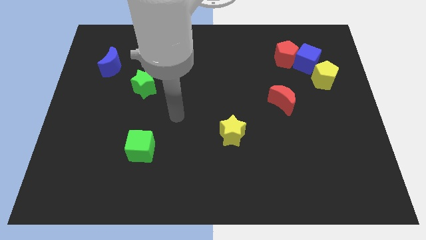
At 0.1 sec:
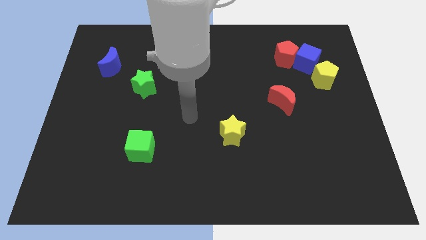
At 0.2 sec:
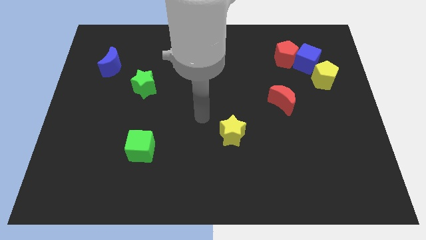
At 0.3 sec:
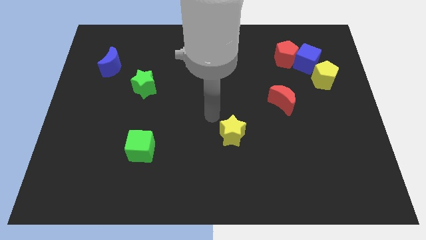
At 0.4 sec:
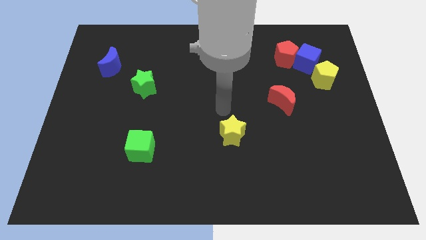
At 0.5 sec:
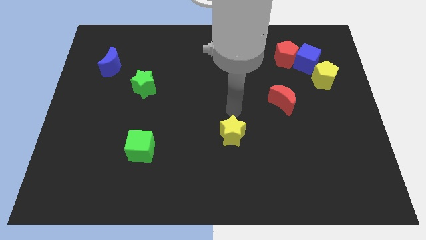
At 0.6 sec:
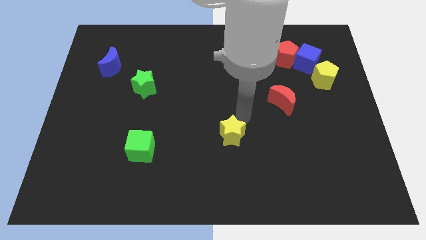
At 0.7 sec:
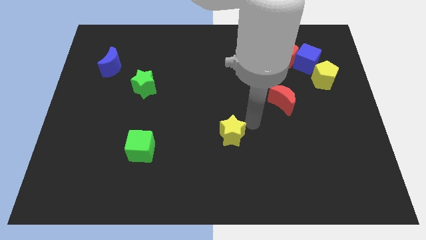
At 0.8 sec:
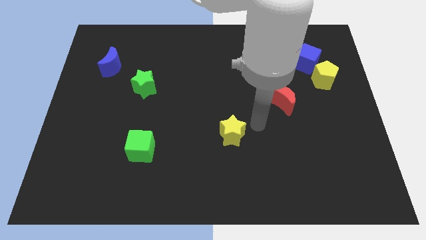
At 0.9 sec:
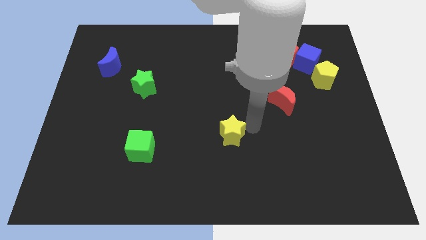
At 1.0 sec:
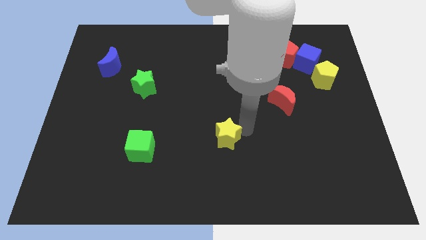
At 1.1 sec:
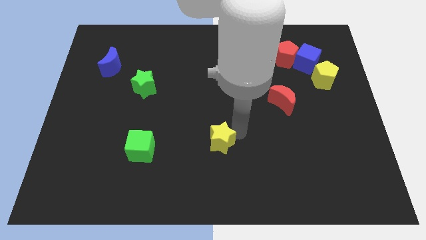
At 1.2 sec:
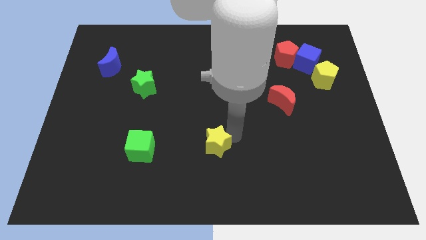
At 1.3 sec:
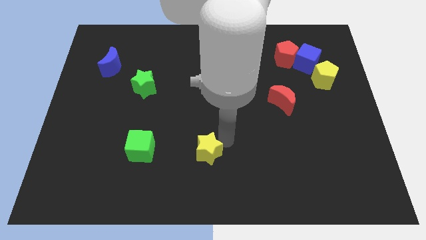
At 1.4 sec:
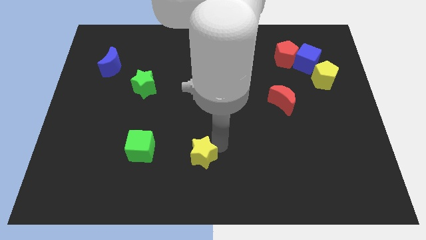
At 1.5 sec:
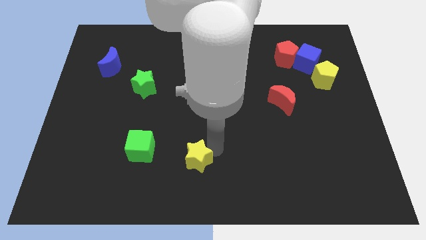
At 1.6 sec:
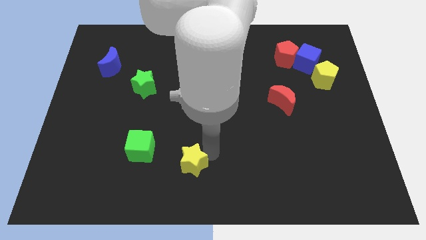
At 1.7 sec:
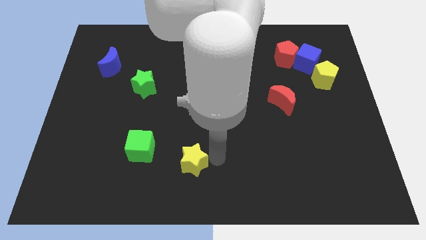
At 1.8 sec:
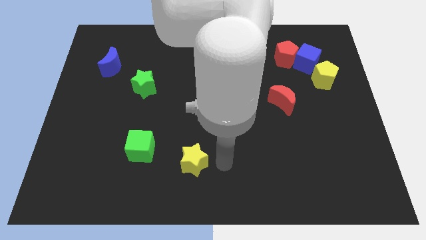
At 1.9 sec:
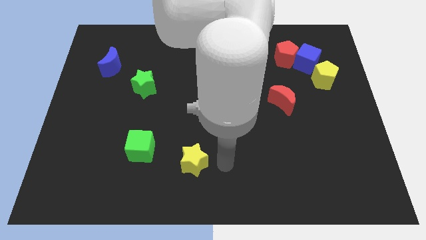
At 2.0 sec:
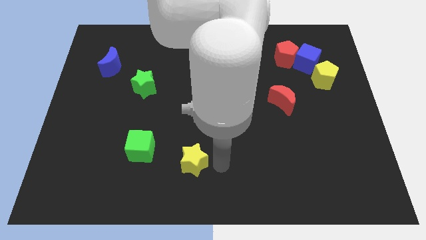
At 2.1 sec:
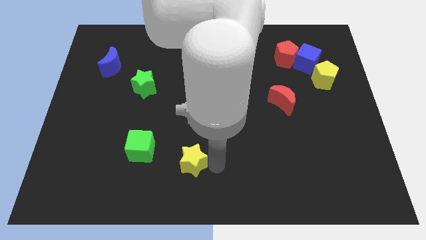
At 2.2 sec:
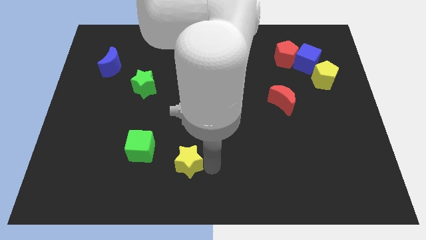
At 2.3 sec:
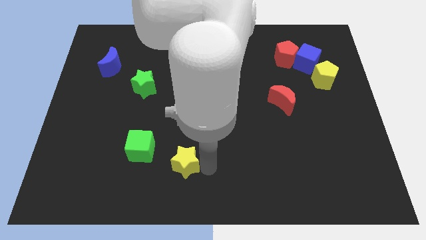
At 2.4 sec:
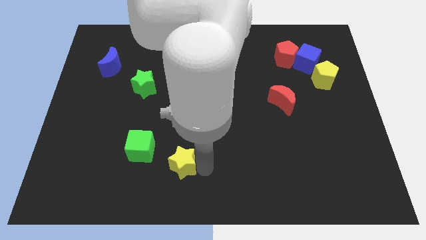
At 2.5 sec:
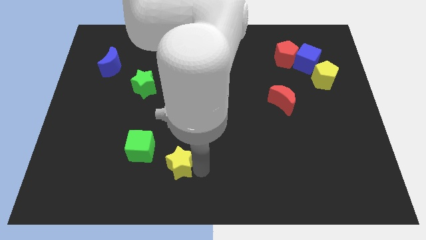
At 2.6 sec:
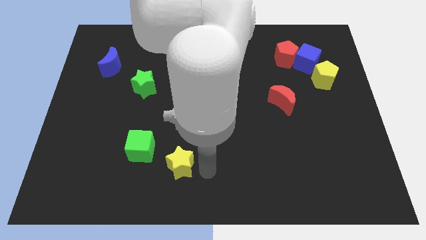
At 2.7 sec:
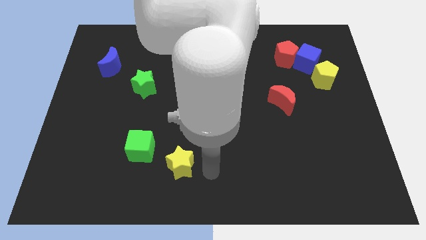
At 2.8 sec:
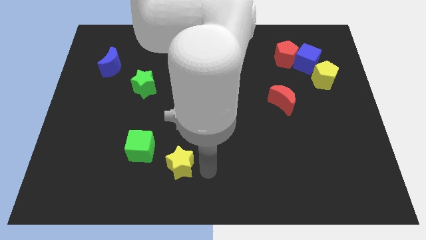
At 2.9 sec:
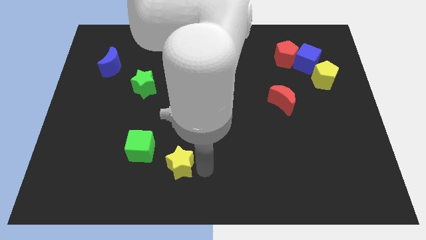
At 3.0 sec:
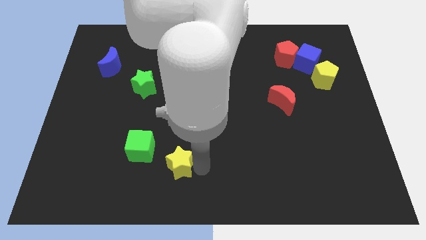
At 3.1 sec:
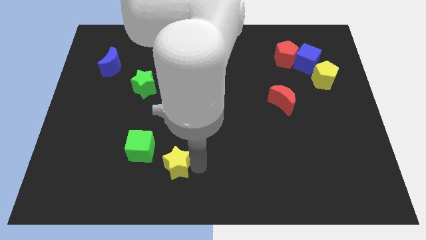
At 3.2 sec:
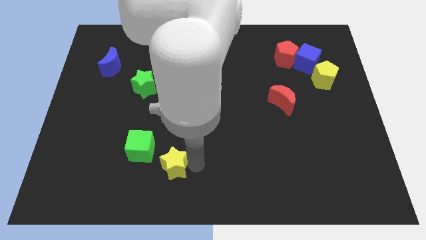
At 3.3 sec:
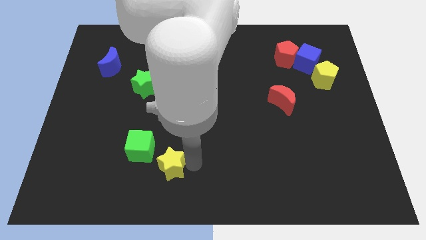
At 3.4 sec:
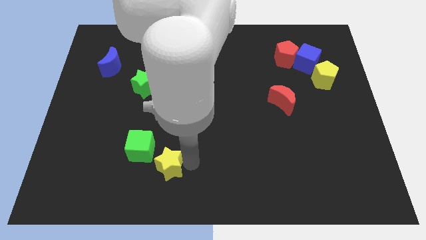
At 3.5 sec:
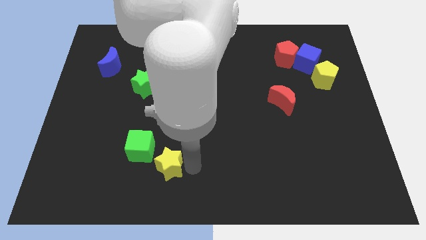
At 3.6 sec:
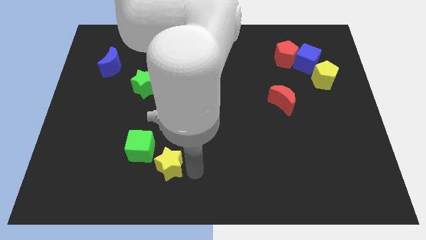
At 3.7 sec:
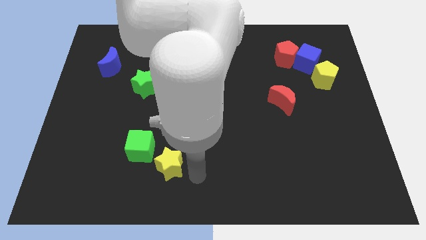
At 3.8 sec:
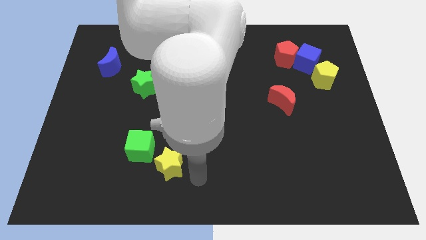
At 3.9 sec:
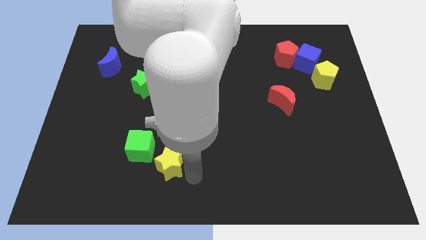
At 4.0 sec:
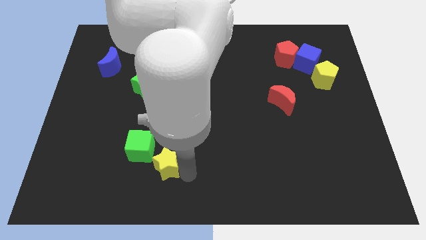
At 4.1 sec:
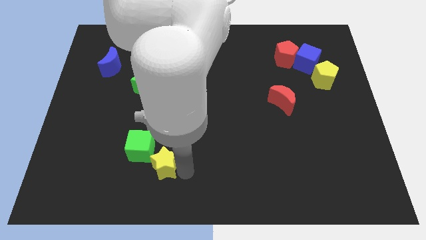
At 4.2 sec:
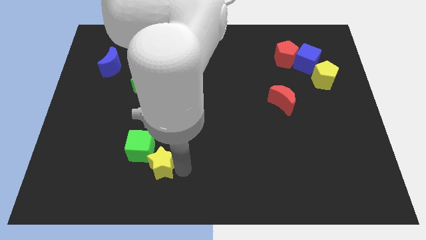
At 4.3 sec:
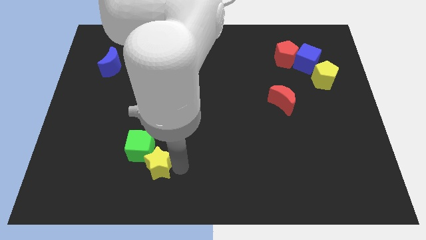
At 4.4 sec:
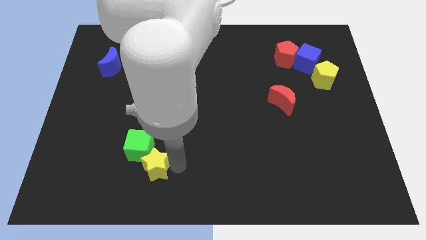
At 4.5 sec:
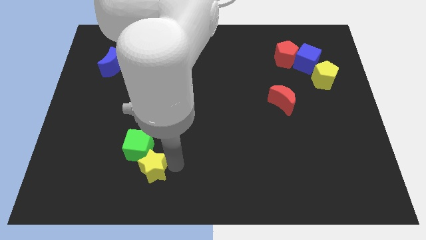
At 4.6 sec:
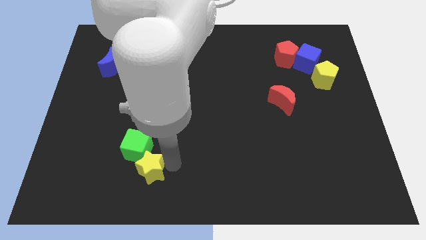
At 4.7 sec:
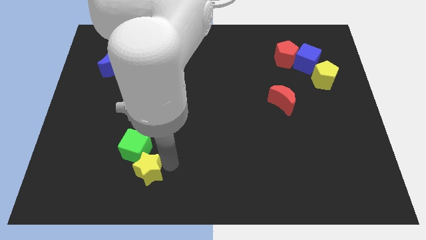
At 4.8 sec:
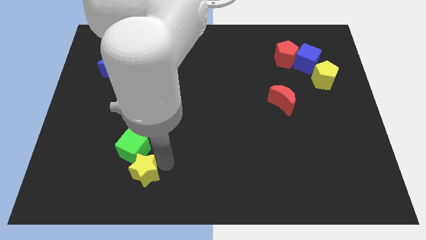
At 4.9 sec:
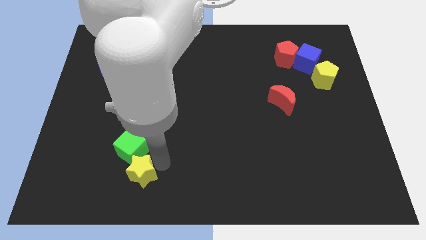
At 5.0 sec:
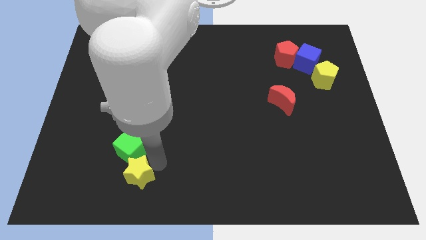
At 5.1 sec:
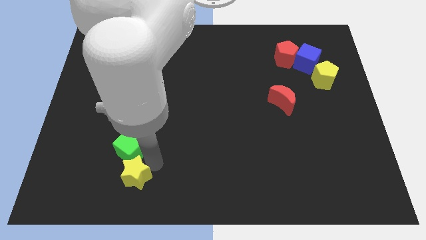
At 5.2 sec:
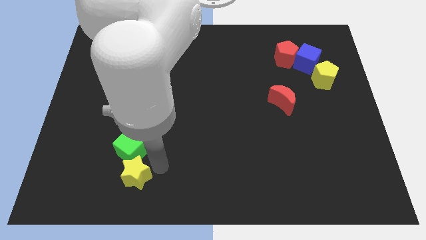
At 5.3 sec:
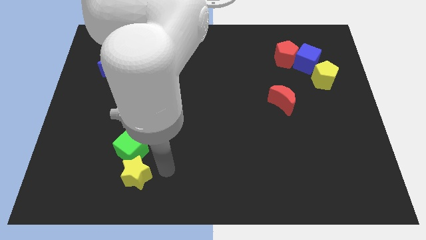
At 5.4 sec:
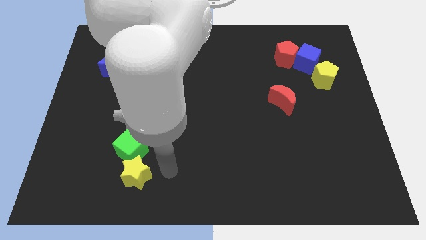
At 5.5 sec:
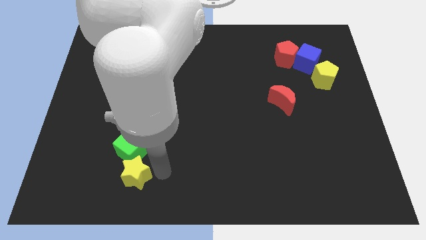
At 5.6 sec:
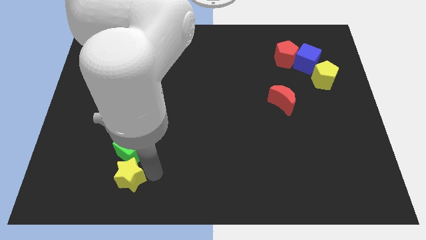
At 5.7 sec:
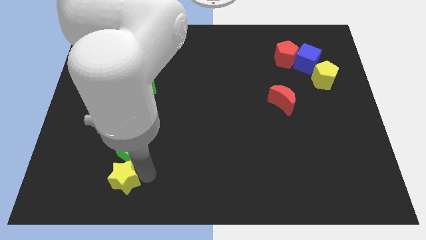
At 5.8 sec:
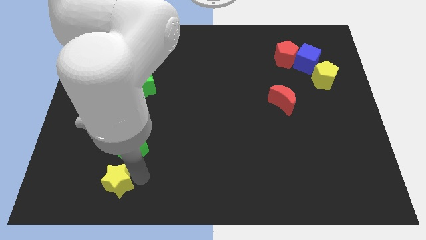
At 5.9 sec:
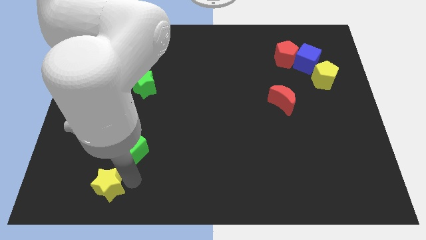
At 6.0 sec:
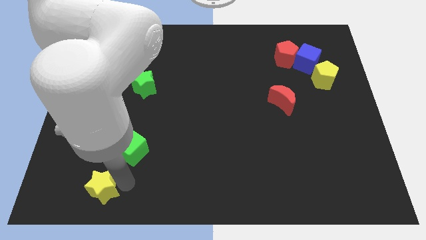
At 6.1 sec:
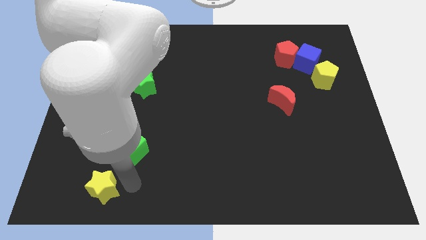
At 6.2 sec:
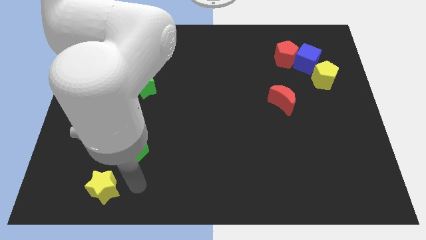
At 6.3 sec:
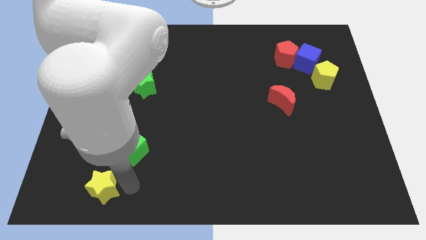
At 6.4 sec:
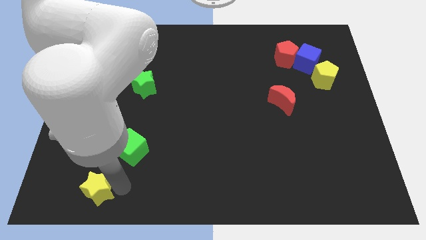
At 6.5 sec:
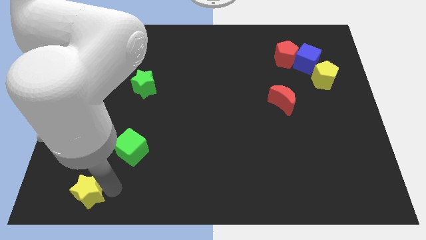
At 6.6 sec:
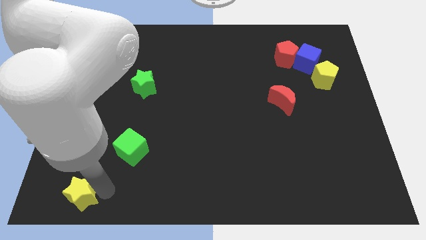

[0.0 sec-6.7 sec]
put the yellow star to the bottom left of the board
